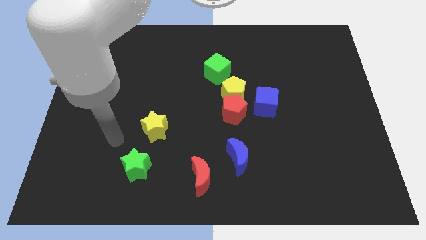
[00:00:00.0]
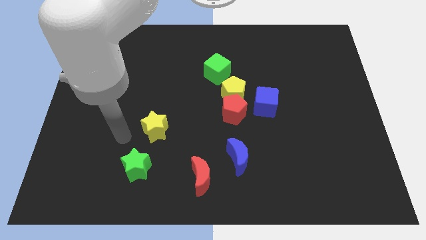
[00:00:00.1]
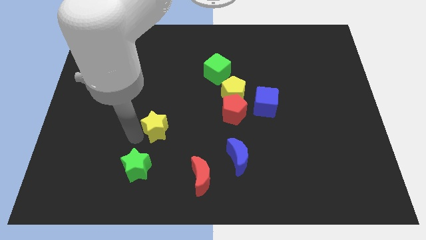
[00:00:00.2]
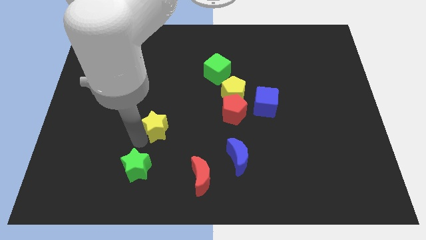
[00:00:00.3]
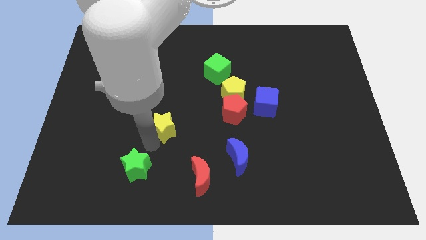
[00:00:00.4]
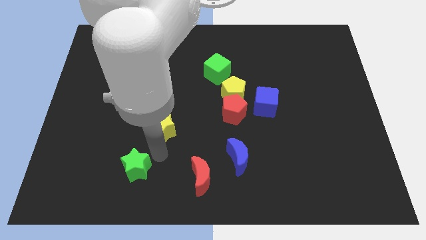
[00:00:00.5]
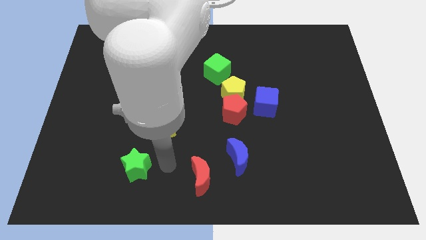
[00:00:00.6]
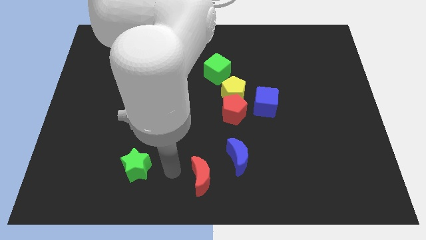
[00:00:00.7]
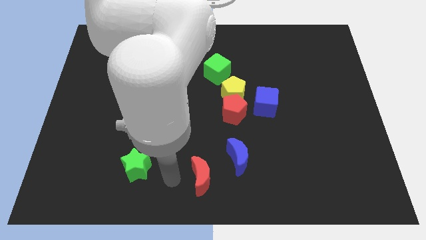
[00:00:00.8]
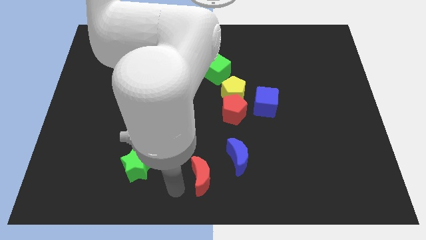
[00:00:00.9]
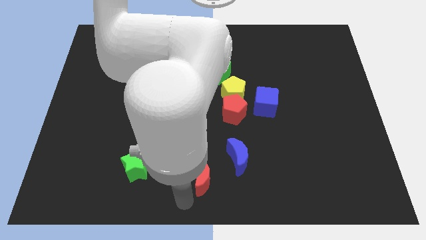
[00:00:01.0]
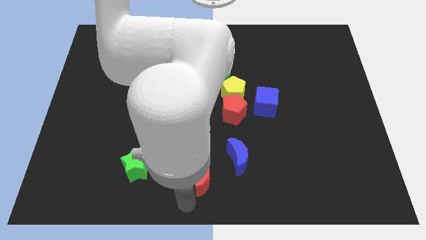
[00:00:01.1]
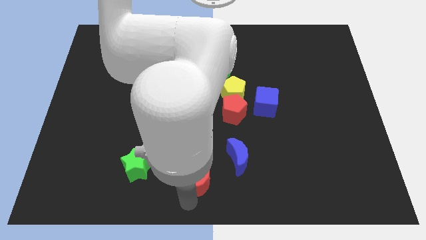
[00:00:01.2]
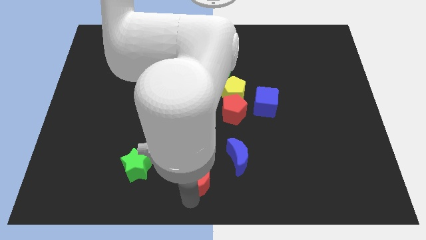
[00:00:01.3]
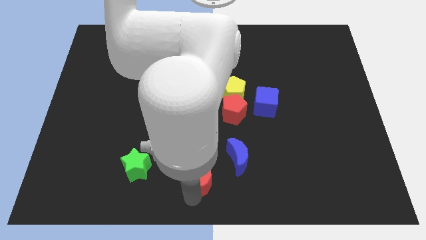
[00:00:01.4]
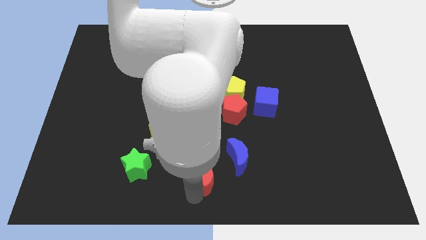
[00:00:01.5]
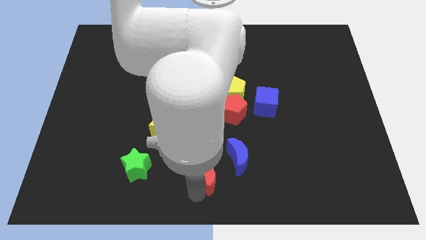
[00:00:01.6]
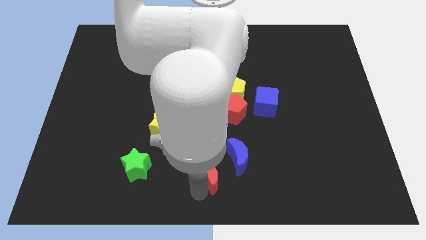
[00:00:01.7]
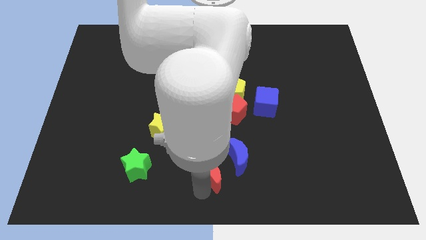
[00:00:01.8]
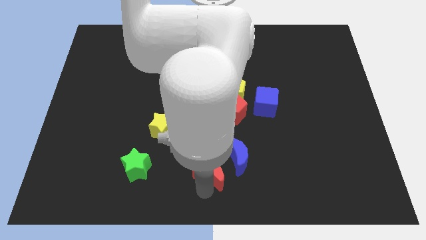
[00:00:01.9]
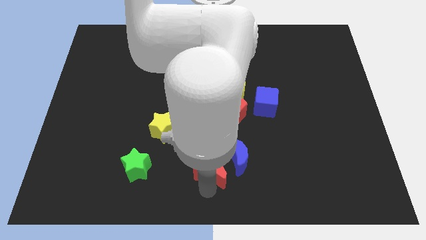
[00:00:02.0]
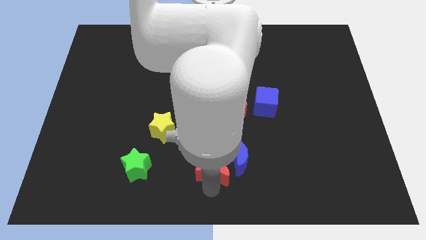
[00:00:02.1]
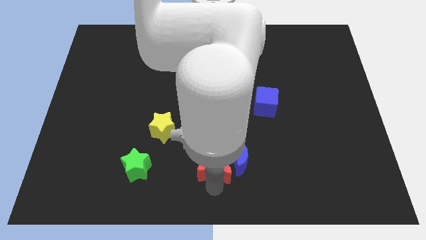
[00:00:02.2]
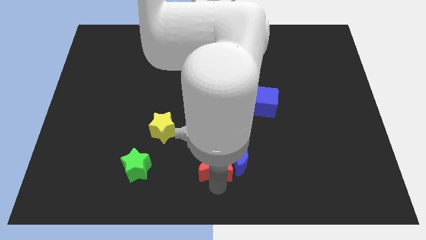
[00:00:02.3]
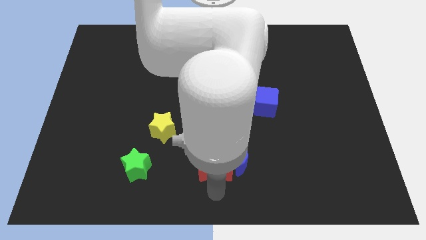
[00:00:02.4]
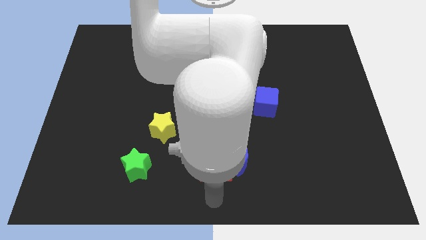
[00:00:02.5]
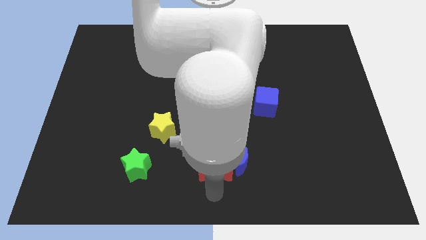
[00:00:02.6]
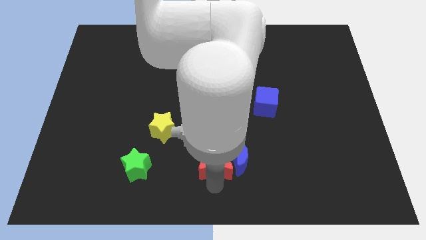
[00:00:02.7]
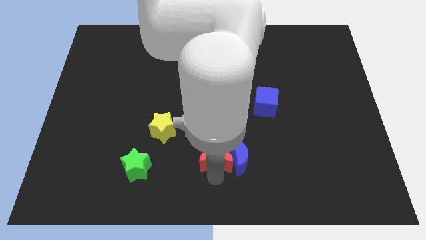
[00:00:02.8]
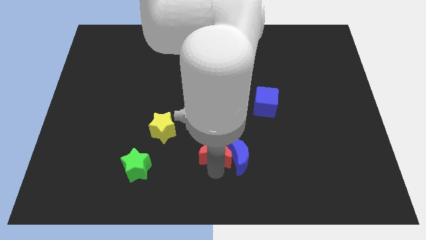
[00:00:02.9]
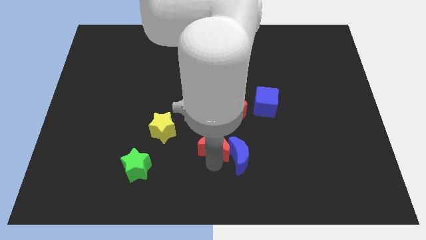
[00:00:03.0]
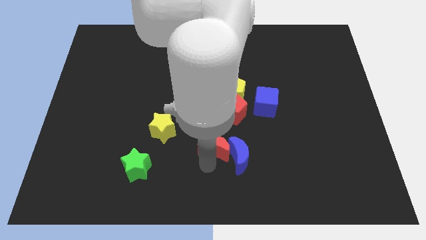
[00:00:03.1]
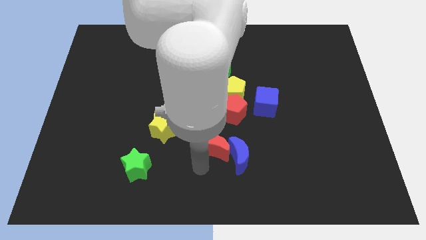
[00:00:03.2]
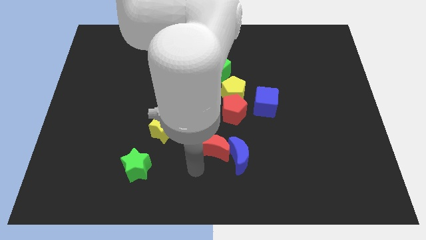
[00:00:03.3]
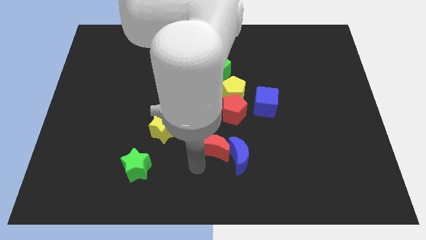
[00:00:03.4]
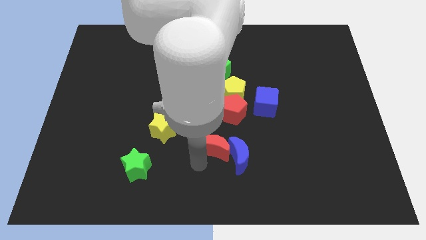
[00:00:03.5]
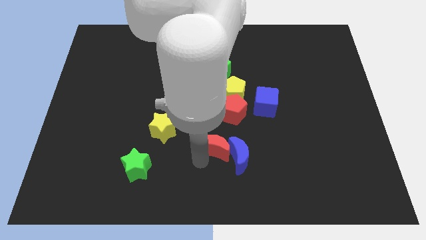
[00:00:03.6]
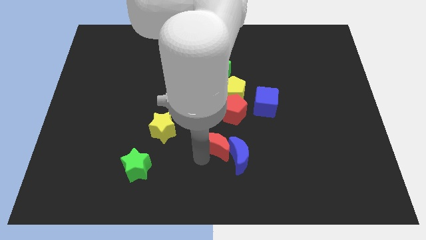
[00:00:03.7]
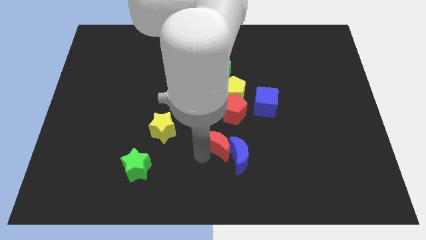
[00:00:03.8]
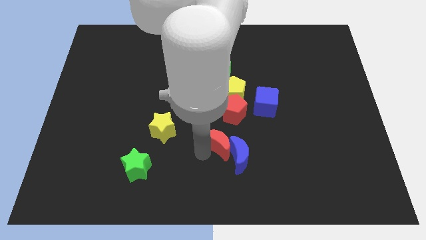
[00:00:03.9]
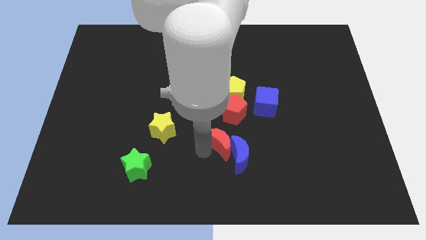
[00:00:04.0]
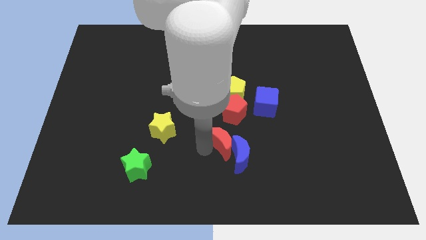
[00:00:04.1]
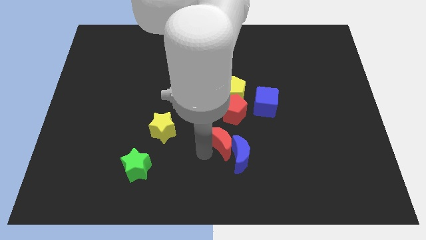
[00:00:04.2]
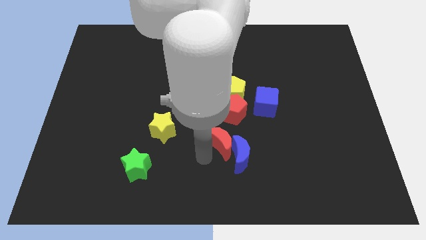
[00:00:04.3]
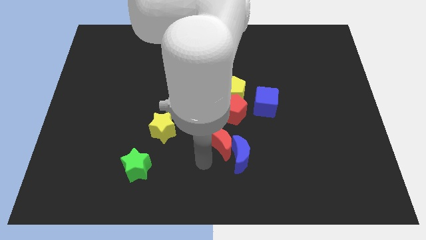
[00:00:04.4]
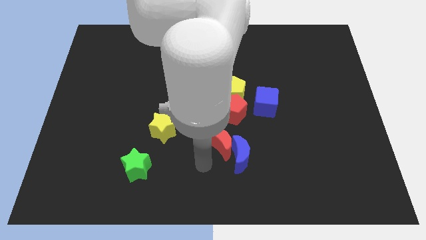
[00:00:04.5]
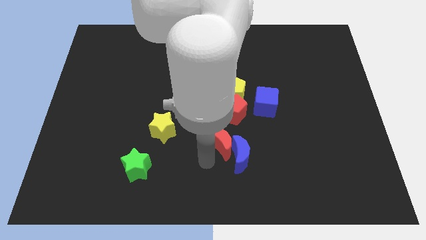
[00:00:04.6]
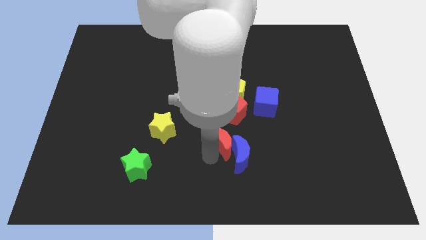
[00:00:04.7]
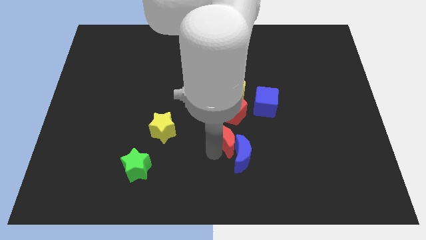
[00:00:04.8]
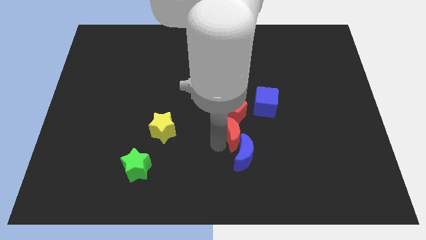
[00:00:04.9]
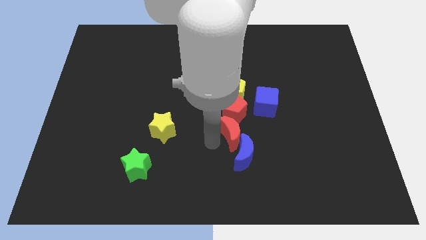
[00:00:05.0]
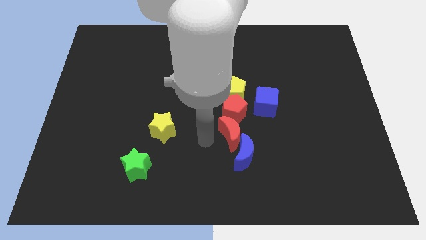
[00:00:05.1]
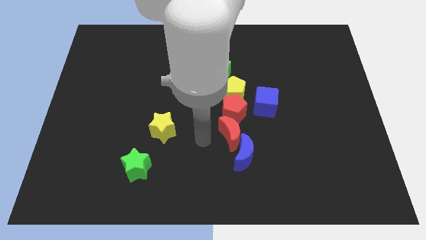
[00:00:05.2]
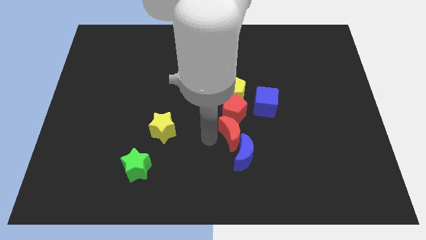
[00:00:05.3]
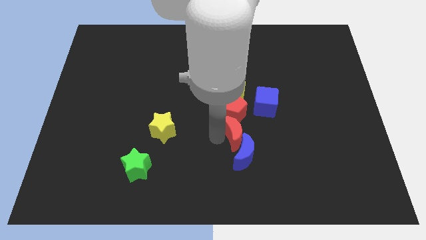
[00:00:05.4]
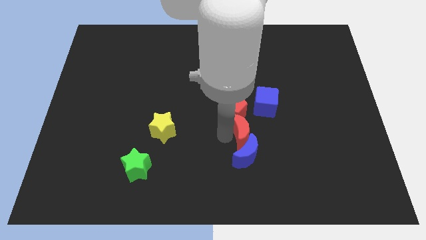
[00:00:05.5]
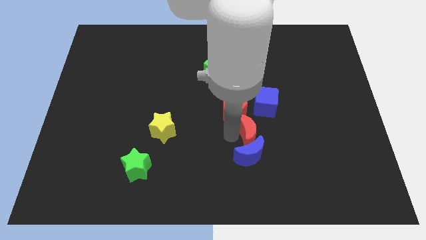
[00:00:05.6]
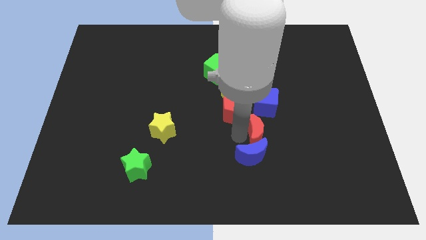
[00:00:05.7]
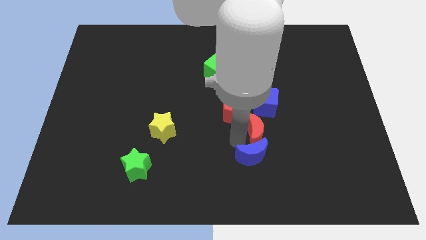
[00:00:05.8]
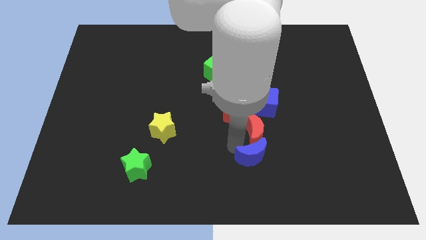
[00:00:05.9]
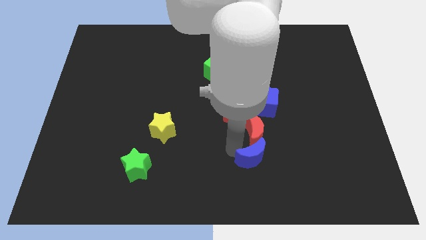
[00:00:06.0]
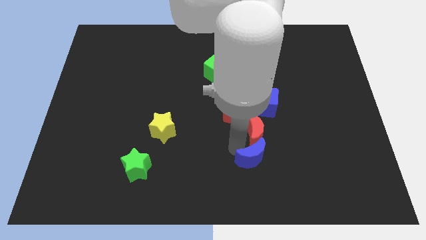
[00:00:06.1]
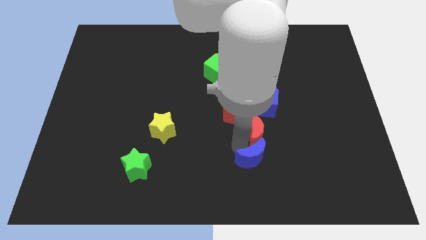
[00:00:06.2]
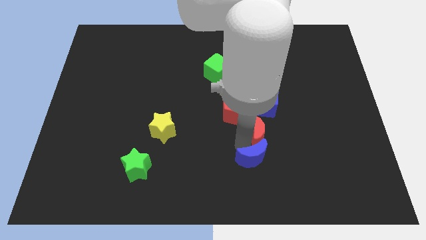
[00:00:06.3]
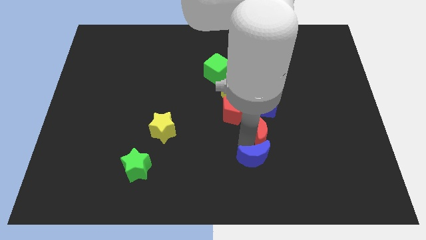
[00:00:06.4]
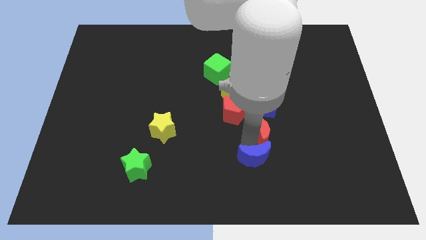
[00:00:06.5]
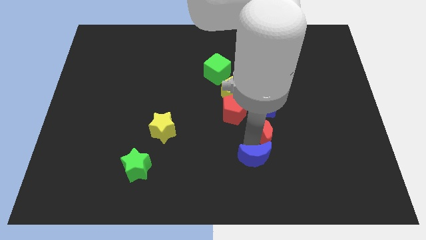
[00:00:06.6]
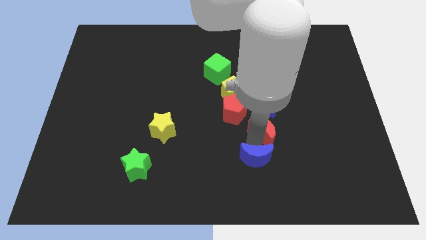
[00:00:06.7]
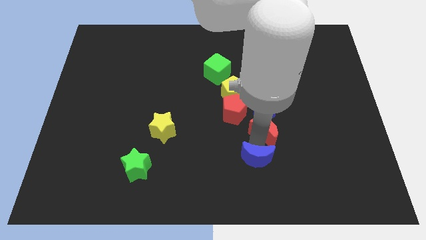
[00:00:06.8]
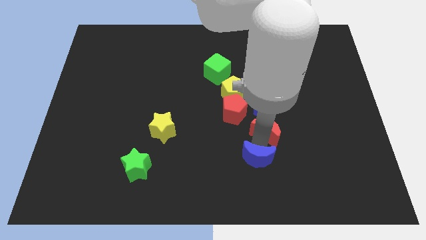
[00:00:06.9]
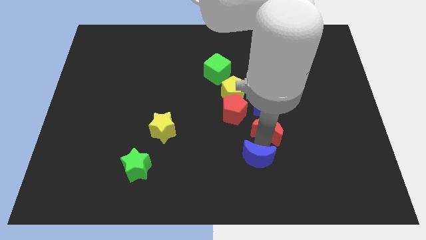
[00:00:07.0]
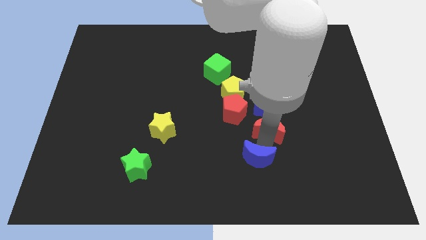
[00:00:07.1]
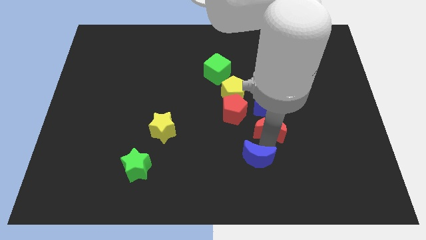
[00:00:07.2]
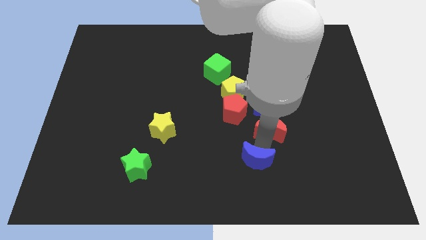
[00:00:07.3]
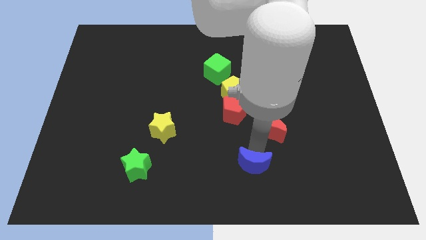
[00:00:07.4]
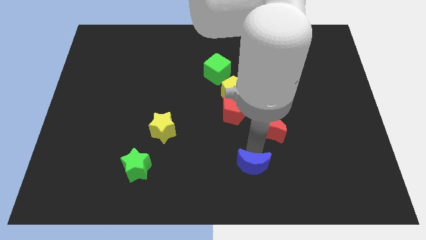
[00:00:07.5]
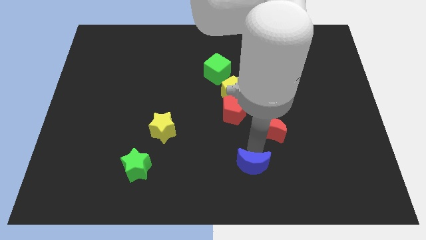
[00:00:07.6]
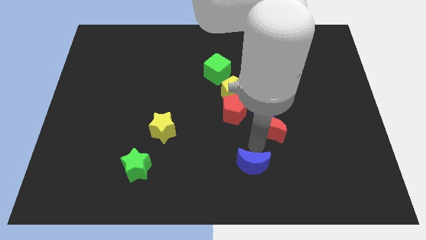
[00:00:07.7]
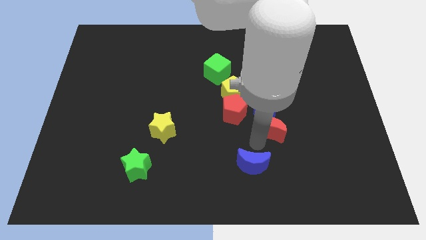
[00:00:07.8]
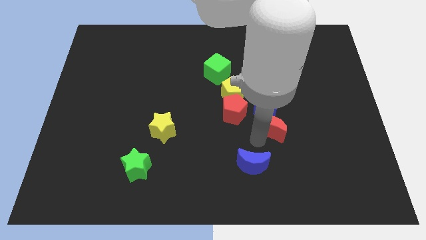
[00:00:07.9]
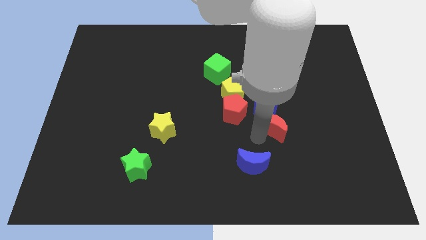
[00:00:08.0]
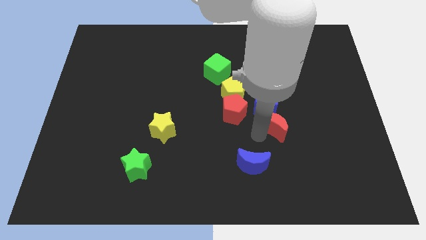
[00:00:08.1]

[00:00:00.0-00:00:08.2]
push the red moon up and right diagonally
